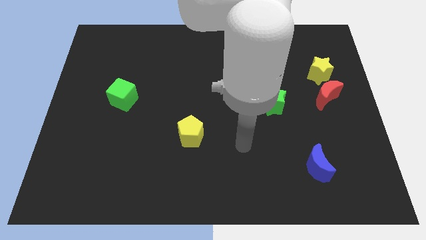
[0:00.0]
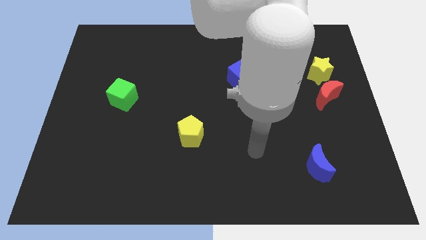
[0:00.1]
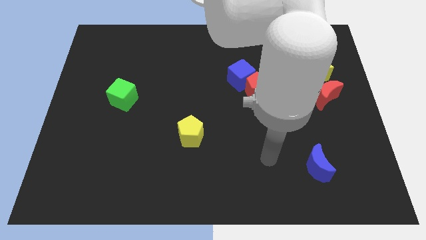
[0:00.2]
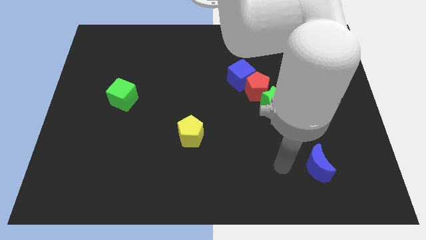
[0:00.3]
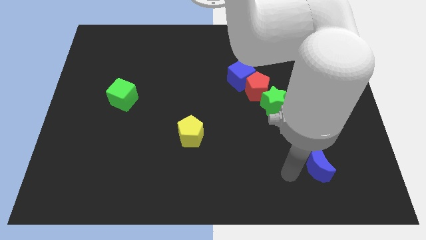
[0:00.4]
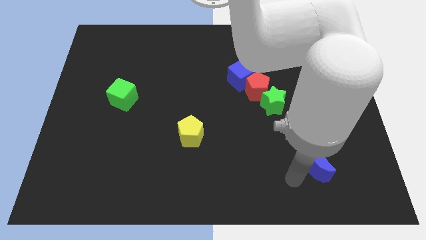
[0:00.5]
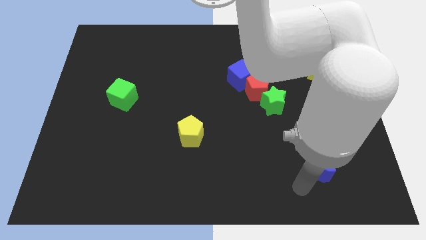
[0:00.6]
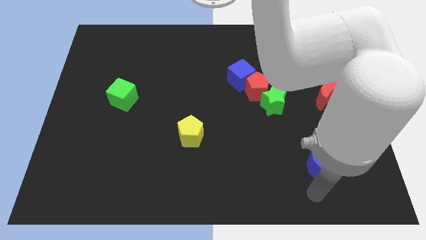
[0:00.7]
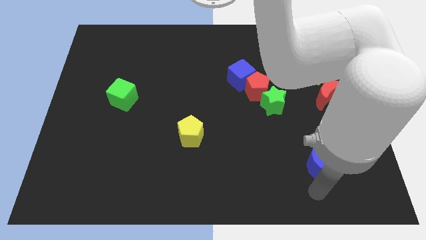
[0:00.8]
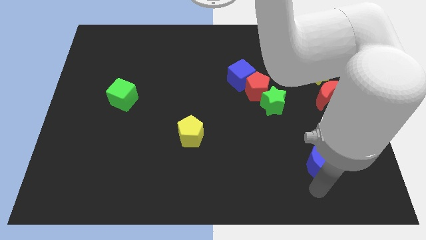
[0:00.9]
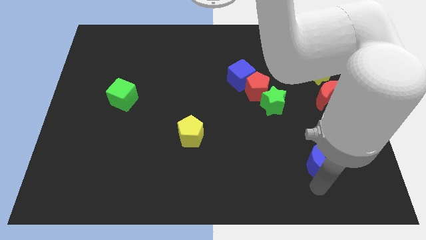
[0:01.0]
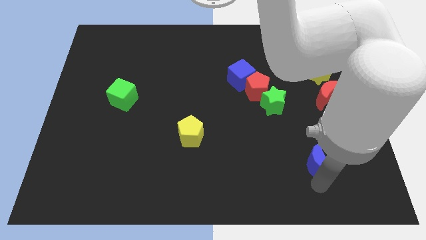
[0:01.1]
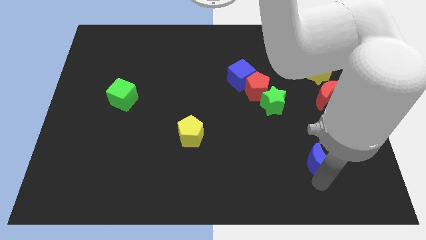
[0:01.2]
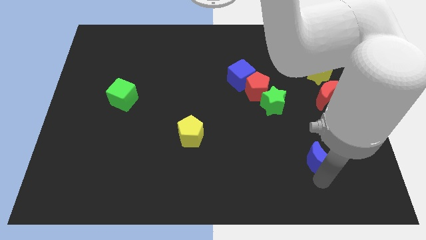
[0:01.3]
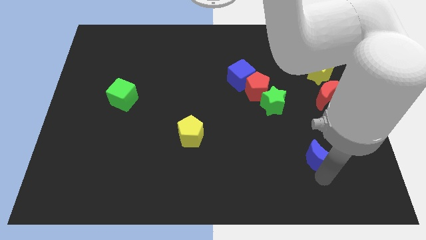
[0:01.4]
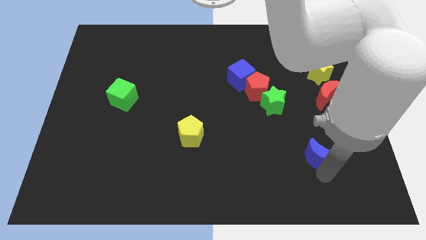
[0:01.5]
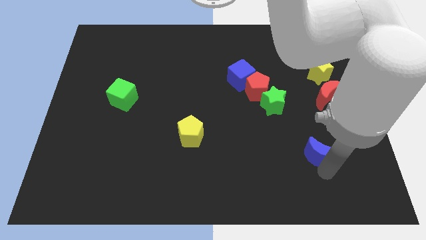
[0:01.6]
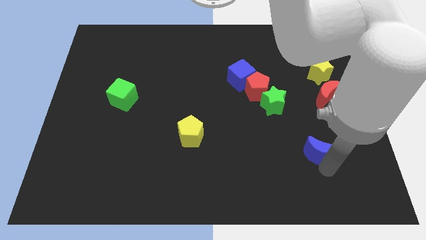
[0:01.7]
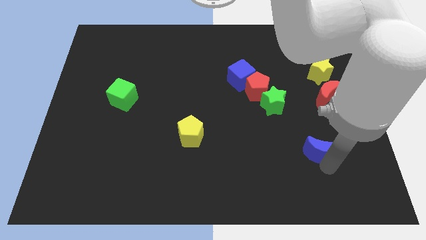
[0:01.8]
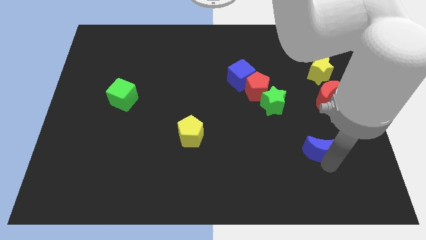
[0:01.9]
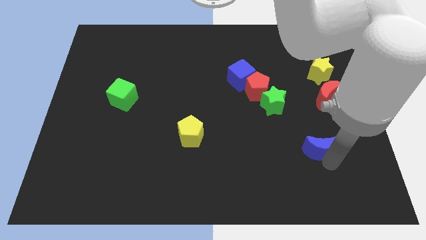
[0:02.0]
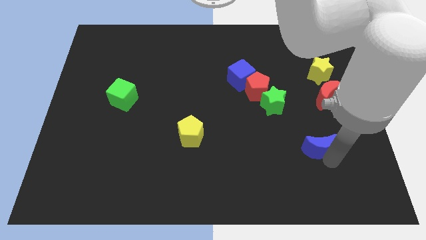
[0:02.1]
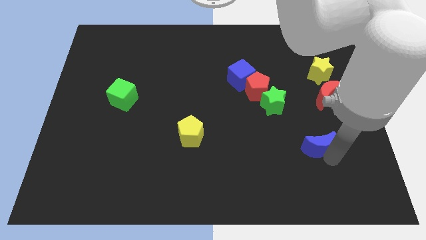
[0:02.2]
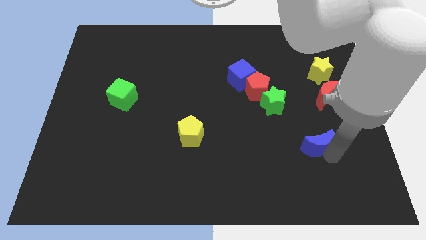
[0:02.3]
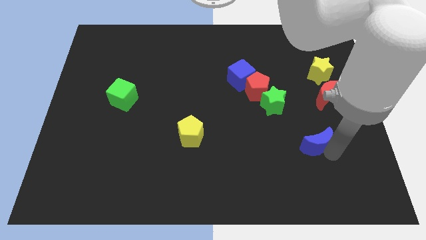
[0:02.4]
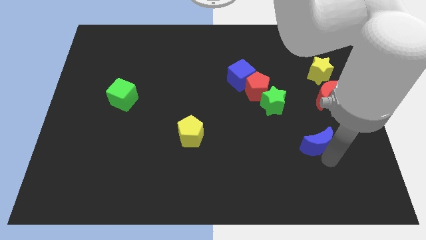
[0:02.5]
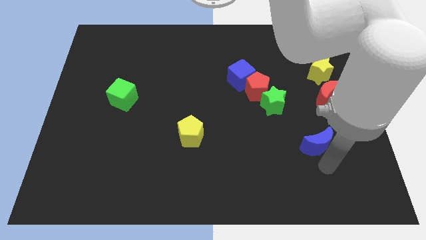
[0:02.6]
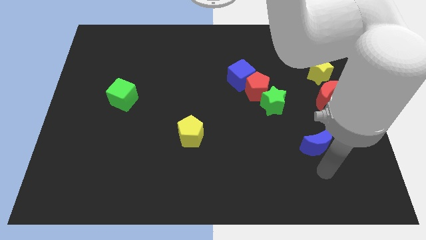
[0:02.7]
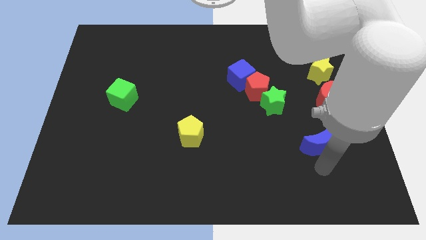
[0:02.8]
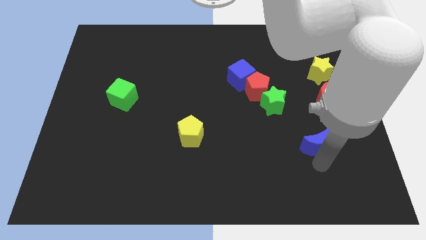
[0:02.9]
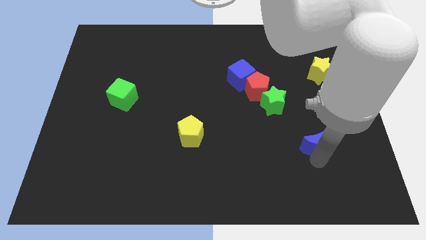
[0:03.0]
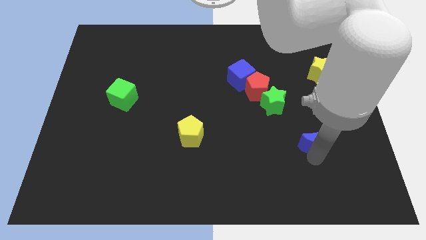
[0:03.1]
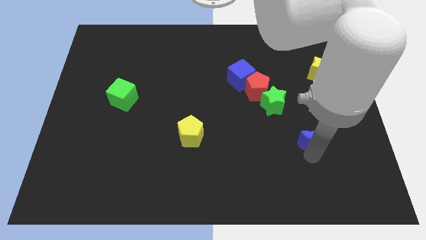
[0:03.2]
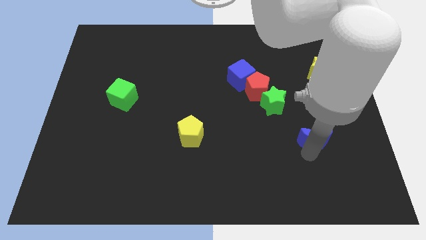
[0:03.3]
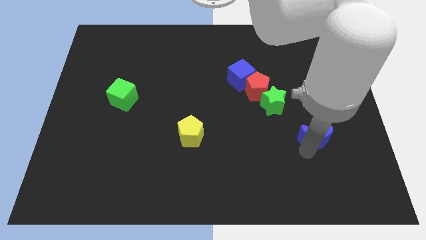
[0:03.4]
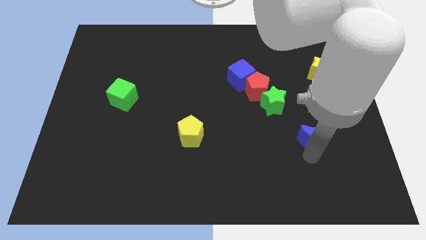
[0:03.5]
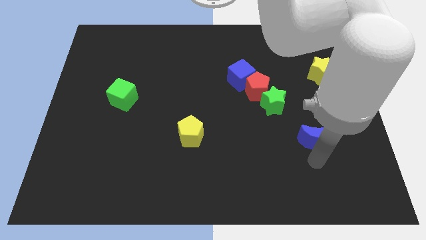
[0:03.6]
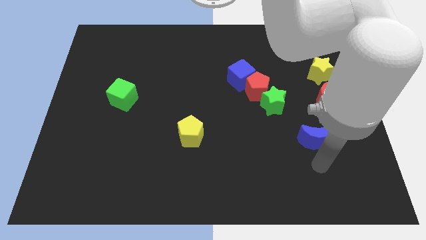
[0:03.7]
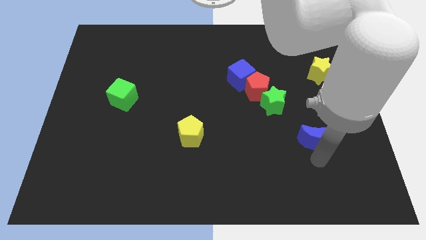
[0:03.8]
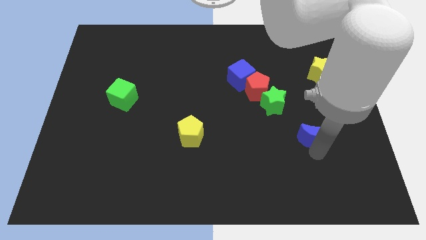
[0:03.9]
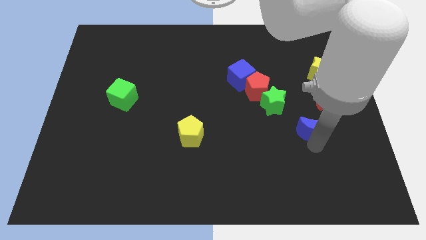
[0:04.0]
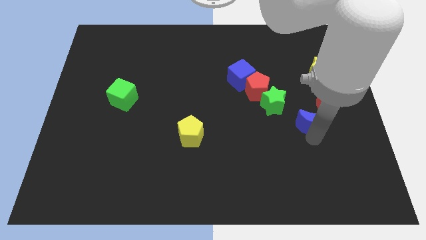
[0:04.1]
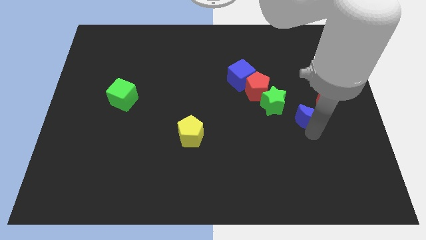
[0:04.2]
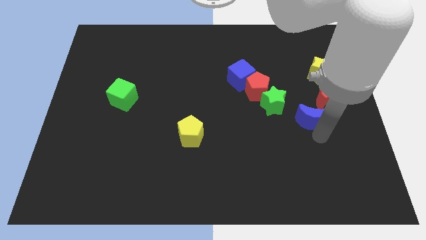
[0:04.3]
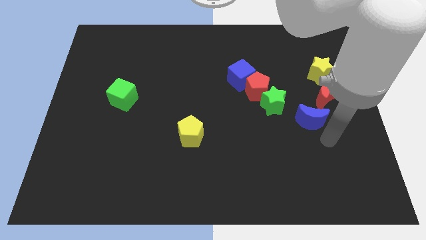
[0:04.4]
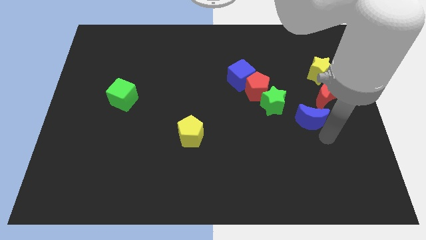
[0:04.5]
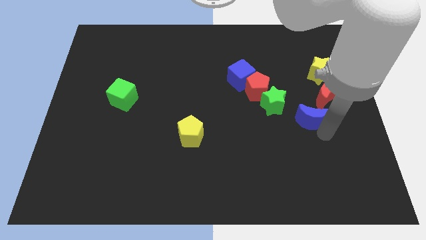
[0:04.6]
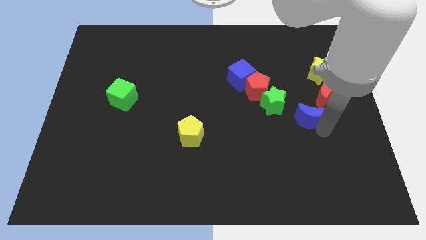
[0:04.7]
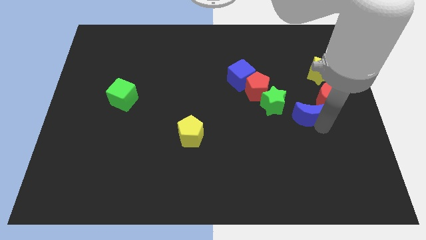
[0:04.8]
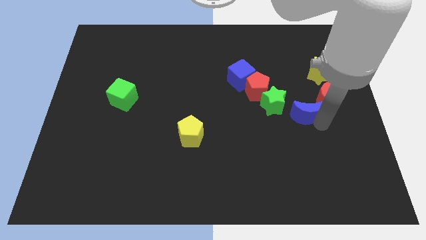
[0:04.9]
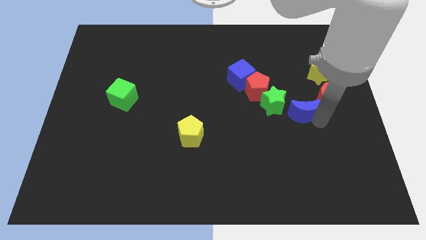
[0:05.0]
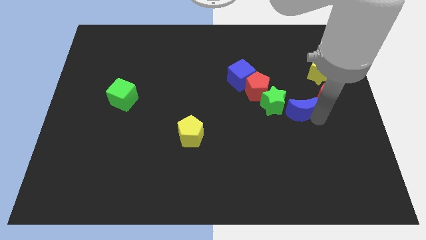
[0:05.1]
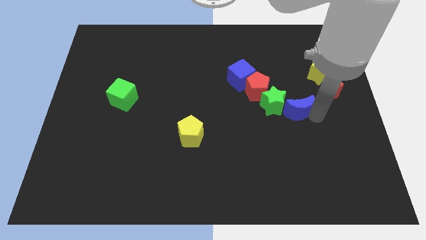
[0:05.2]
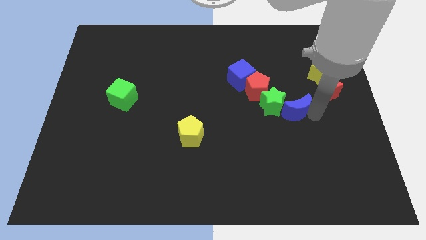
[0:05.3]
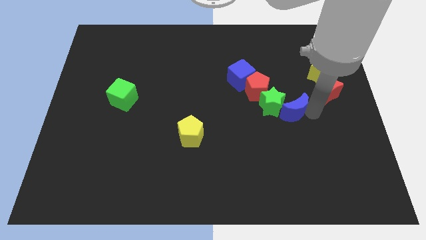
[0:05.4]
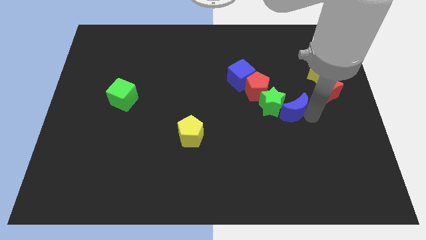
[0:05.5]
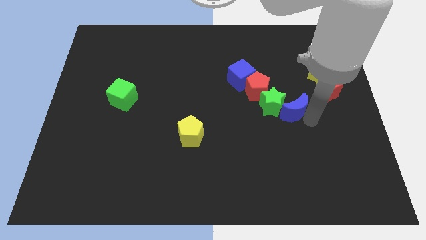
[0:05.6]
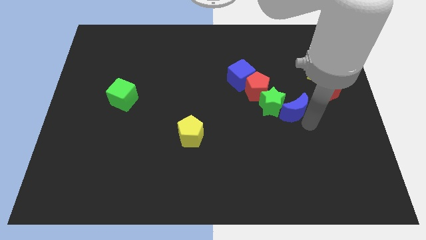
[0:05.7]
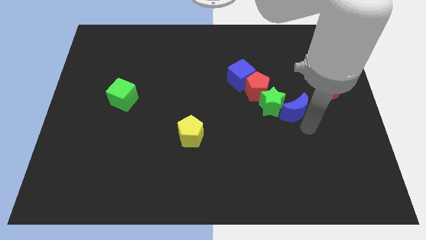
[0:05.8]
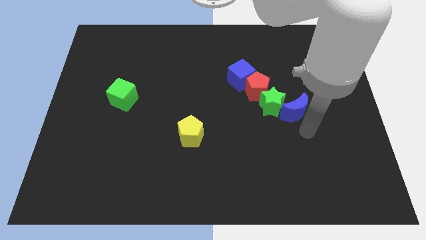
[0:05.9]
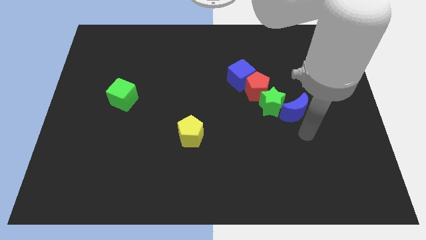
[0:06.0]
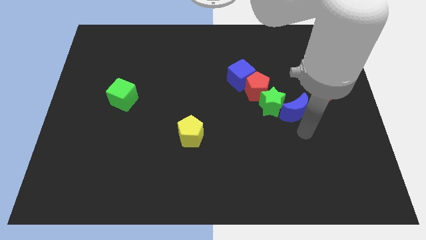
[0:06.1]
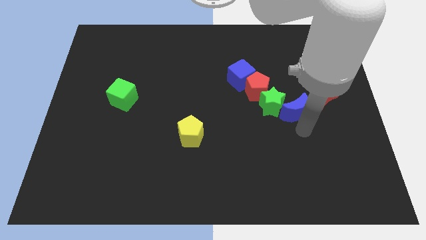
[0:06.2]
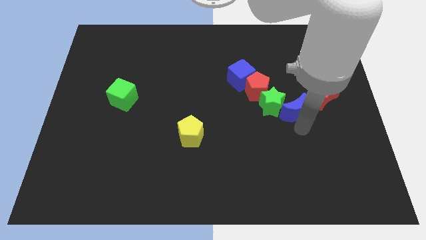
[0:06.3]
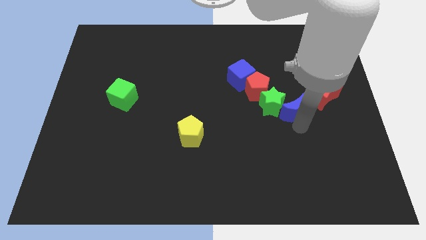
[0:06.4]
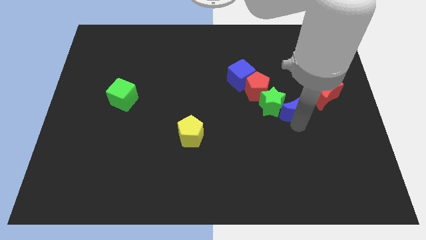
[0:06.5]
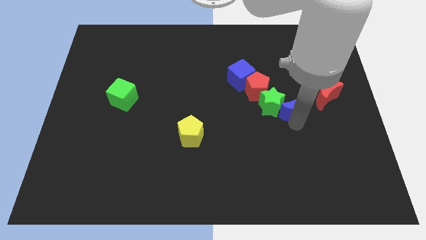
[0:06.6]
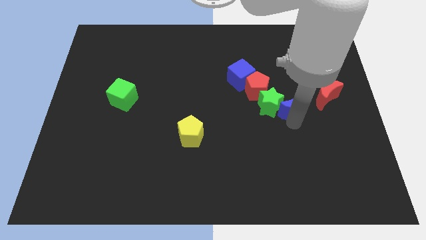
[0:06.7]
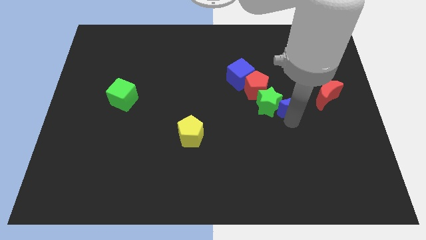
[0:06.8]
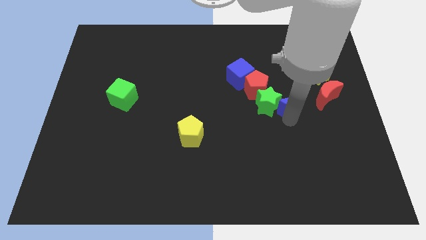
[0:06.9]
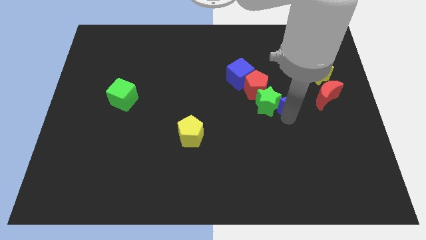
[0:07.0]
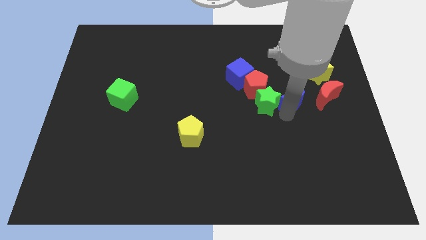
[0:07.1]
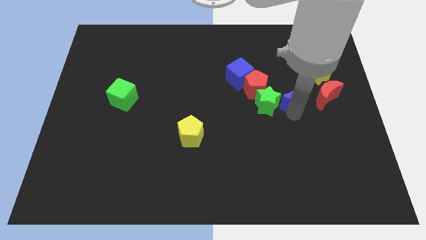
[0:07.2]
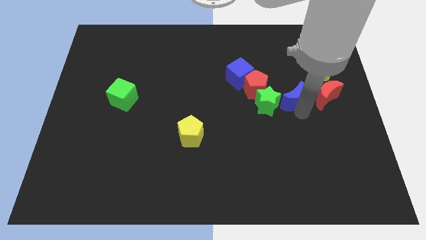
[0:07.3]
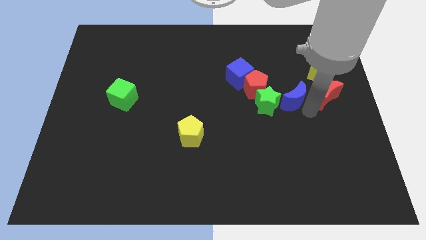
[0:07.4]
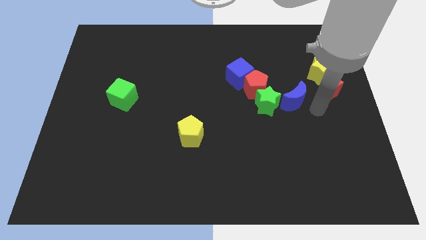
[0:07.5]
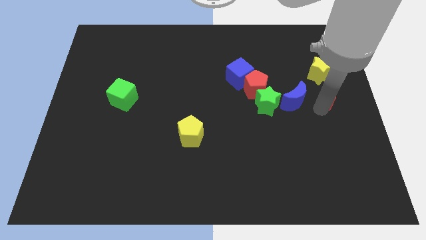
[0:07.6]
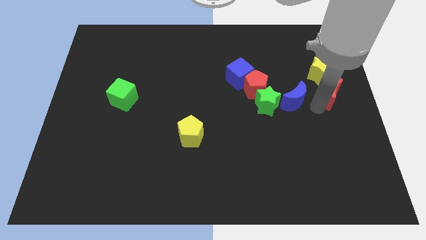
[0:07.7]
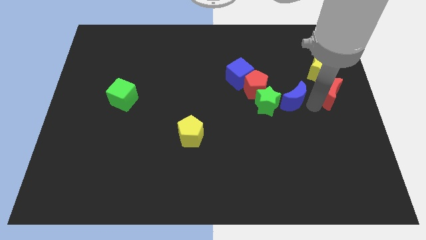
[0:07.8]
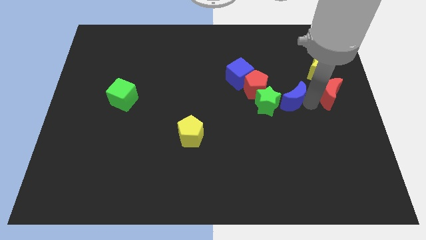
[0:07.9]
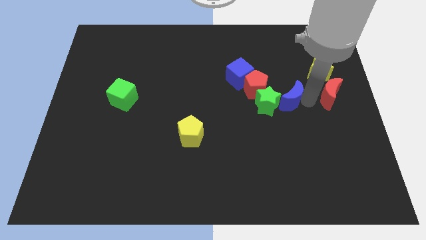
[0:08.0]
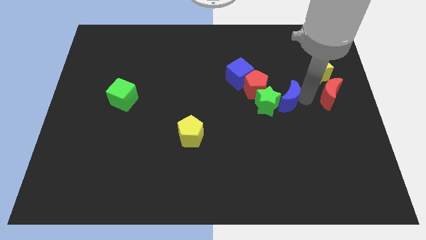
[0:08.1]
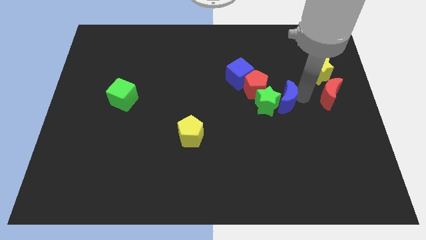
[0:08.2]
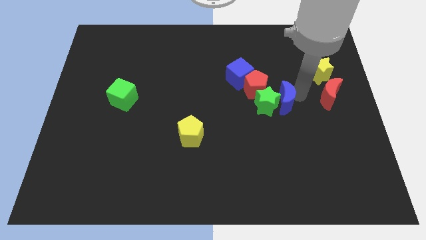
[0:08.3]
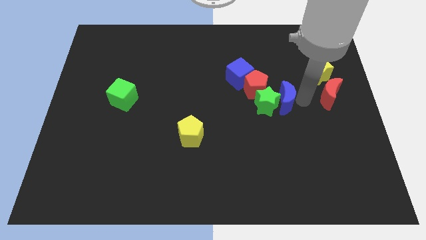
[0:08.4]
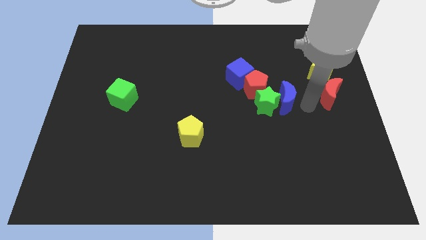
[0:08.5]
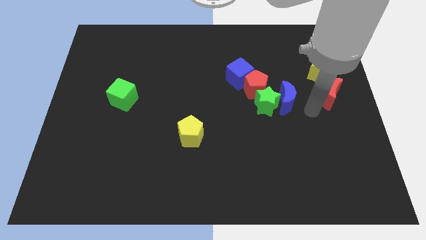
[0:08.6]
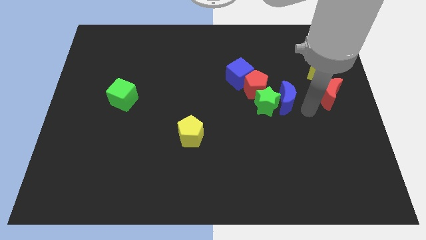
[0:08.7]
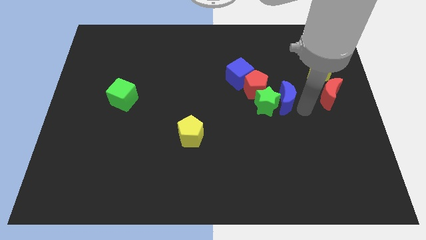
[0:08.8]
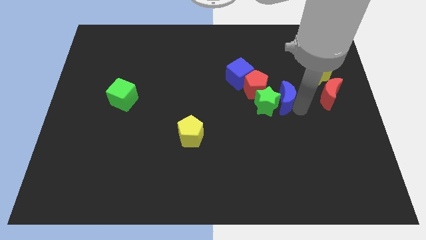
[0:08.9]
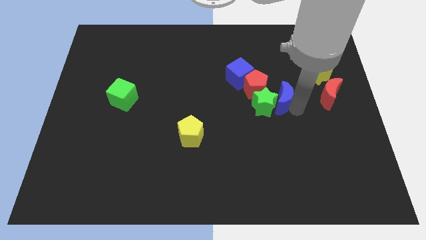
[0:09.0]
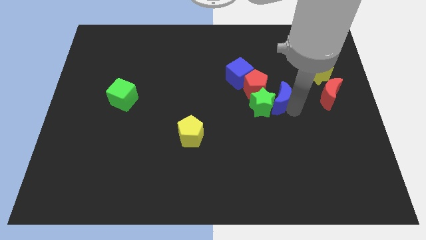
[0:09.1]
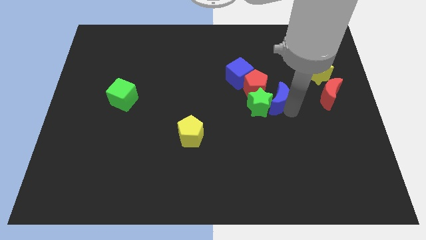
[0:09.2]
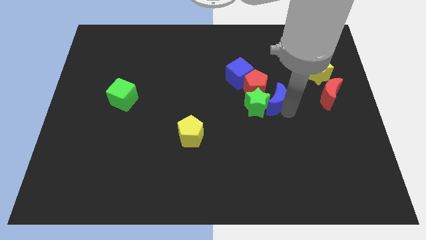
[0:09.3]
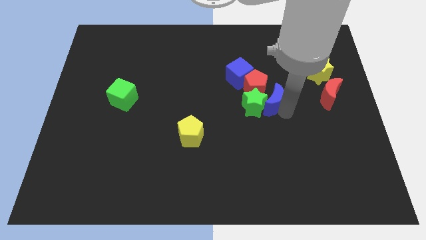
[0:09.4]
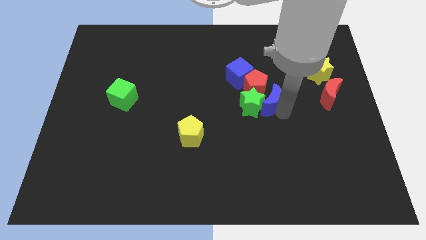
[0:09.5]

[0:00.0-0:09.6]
push the blue moon next to the red pentagon
